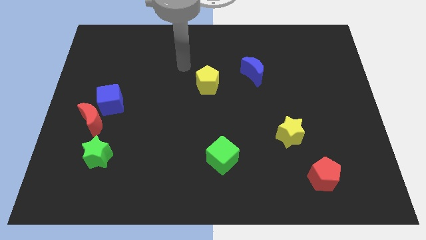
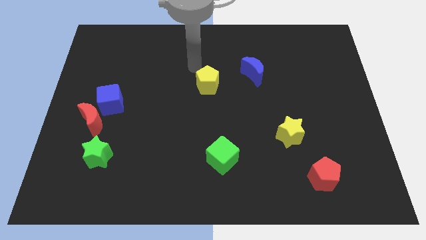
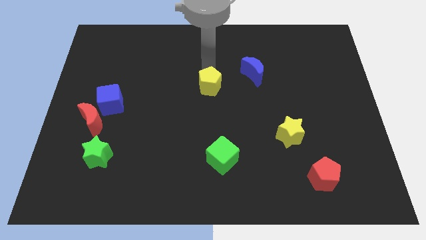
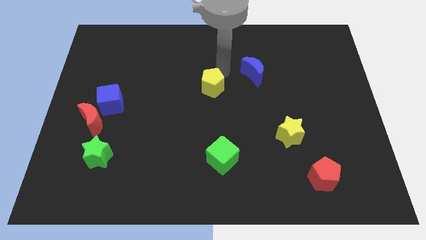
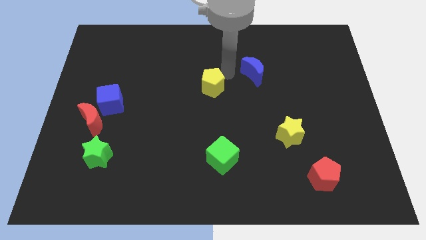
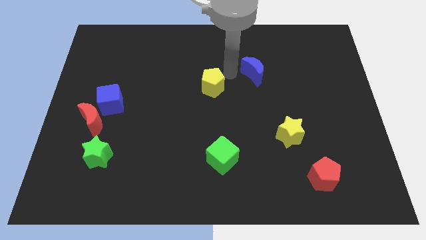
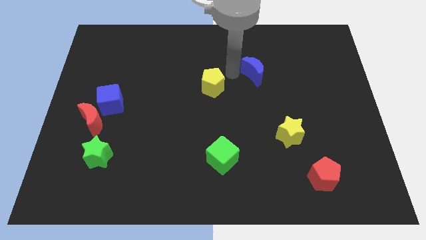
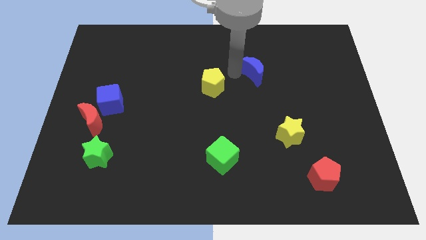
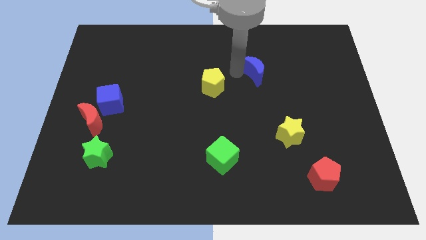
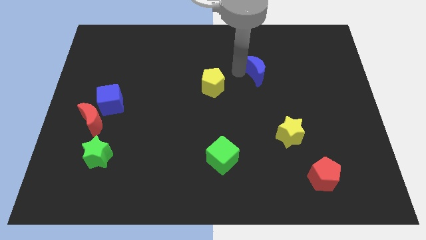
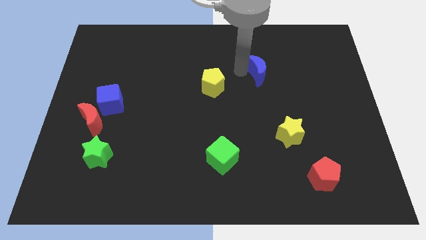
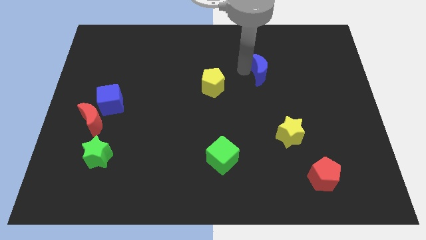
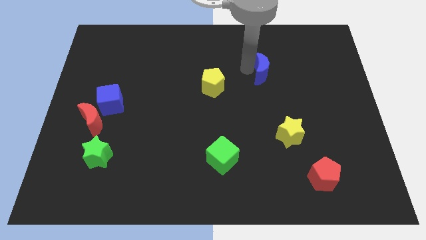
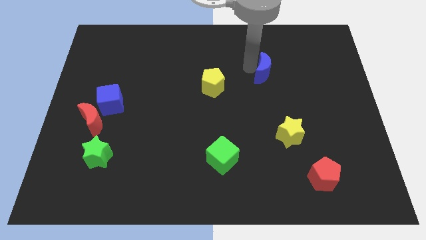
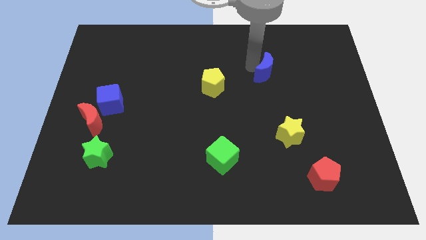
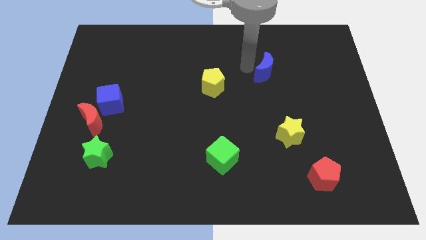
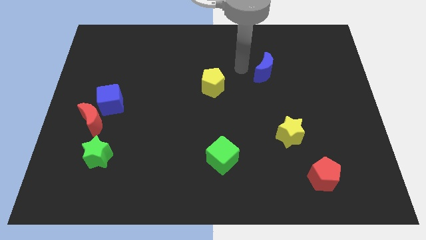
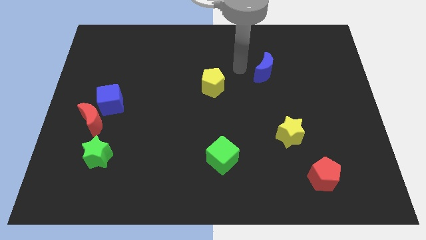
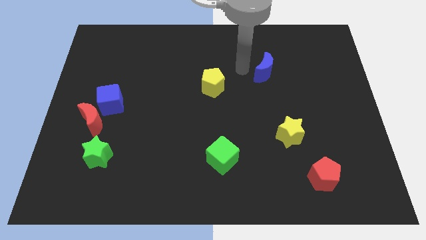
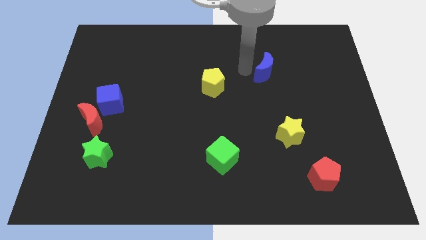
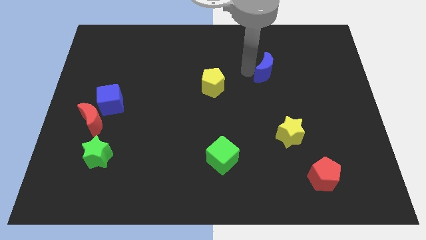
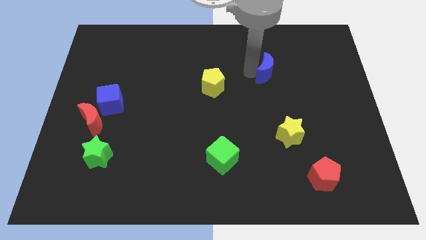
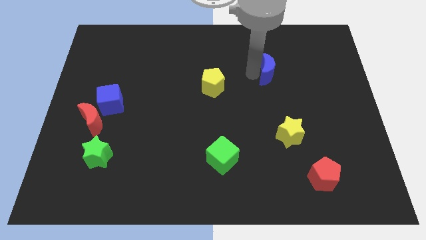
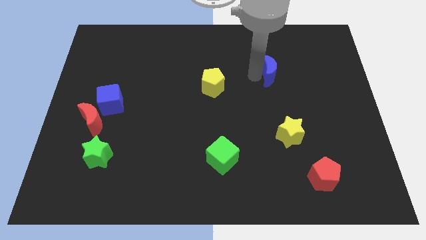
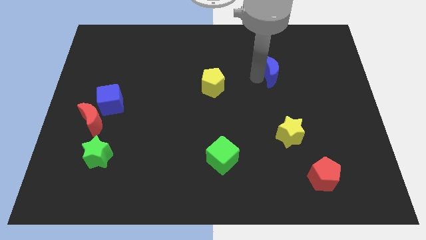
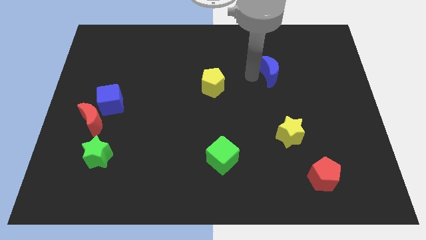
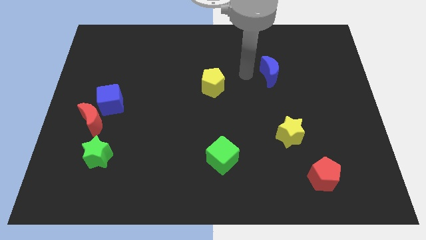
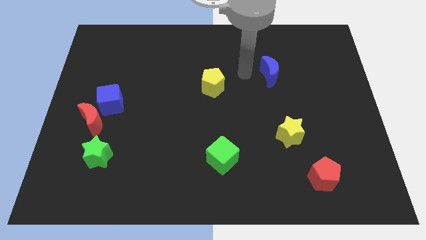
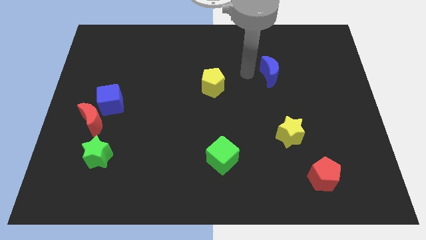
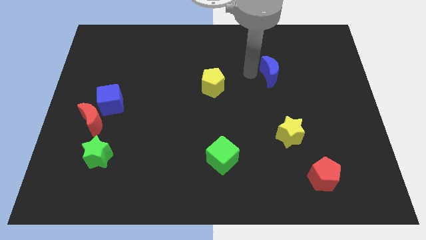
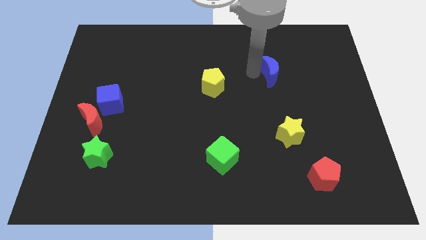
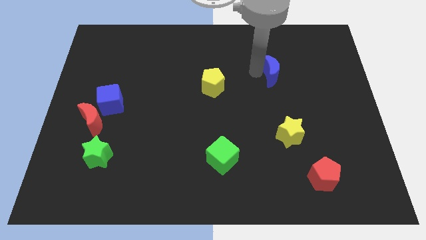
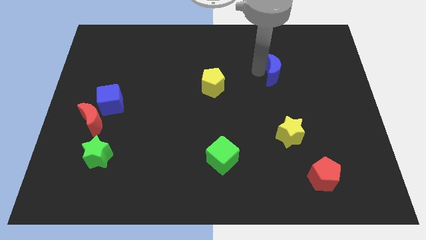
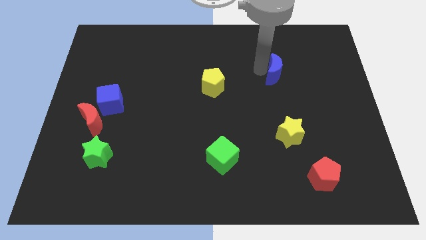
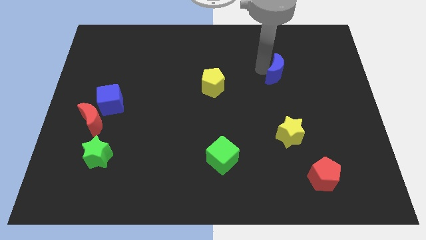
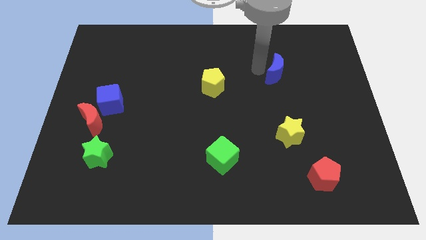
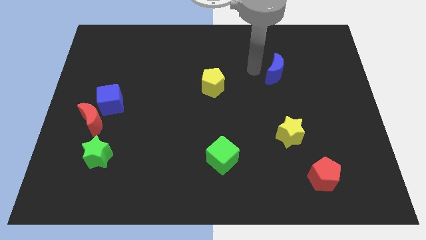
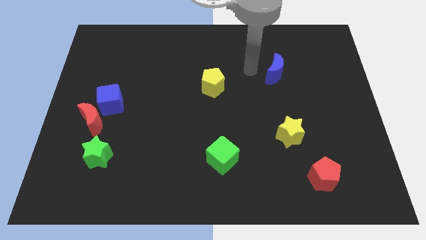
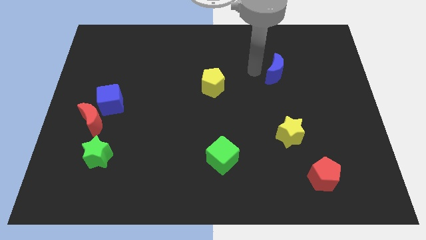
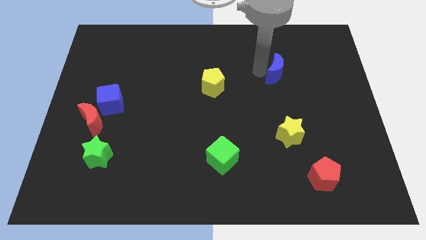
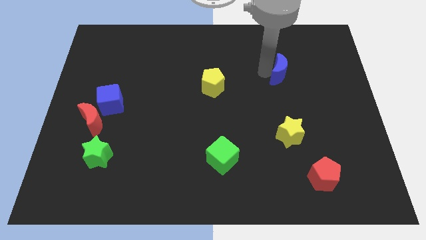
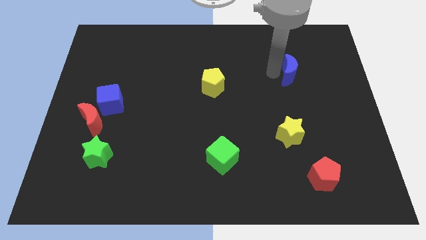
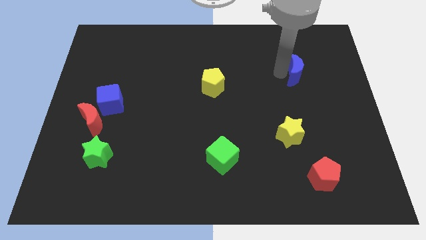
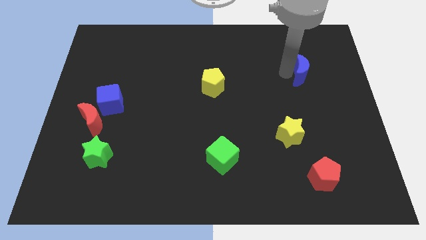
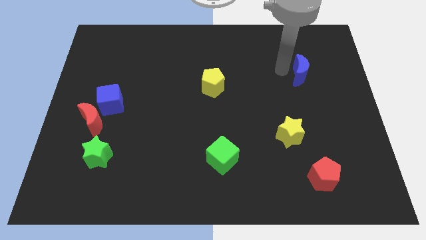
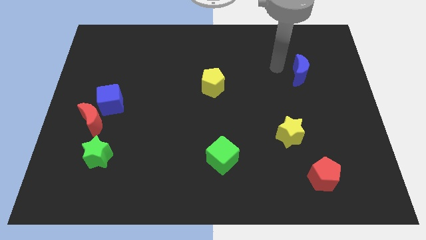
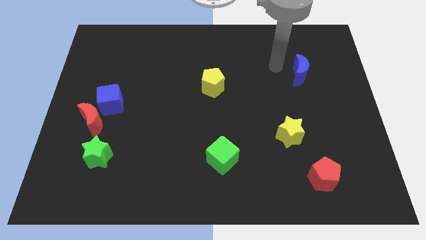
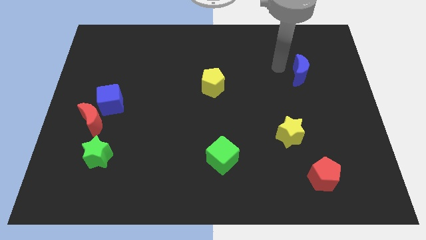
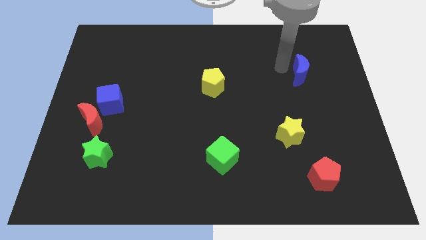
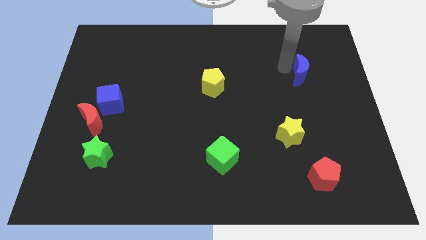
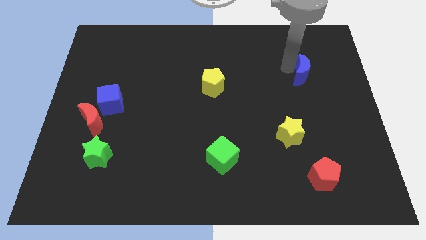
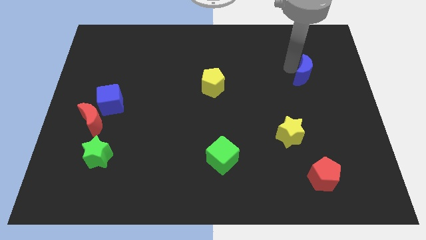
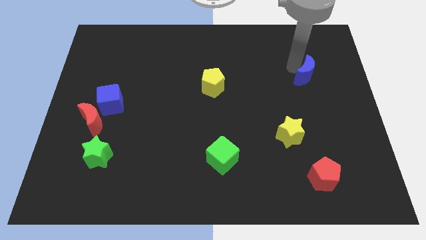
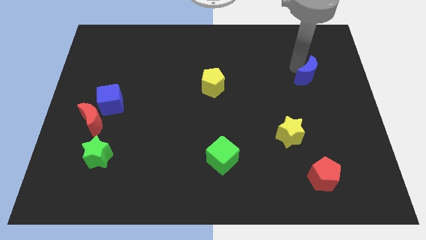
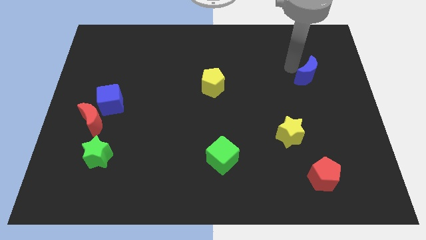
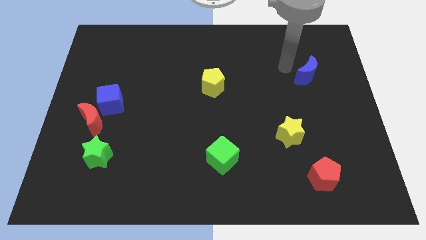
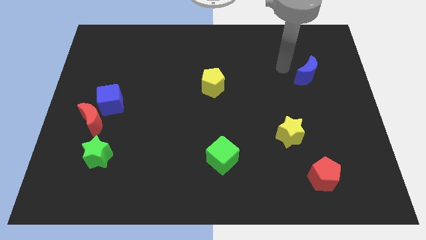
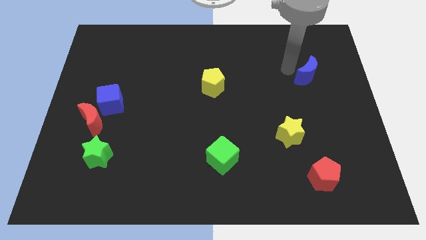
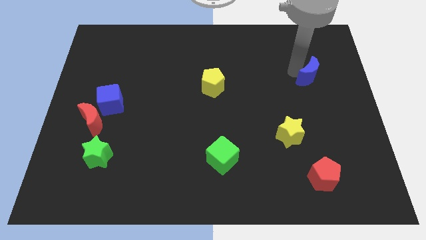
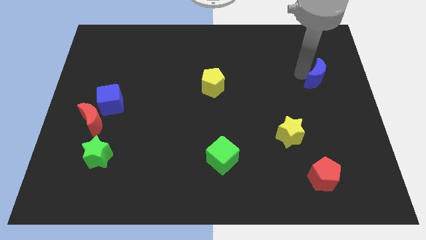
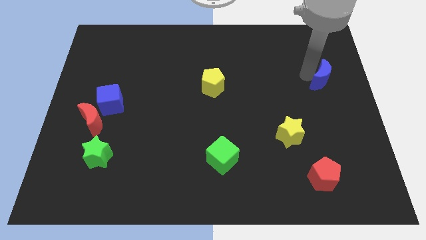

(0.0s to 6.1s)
move the blue moon to the right side of the board
